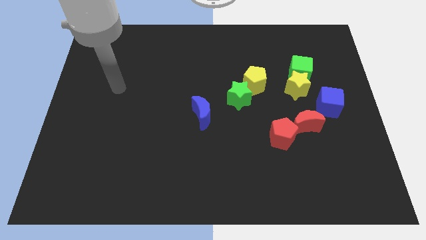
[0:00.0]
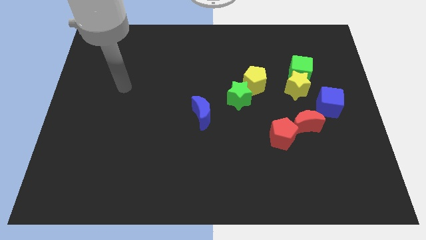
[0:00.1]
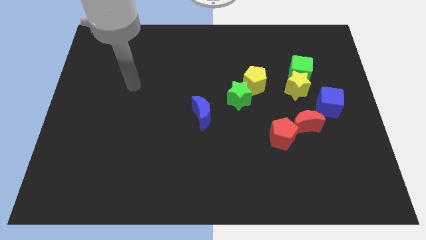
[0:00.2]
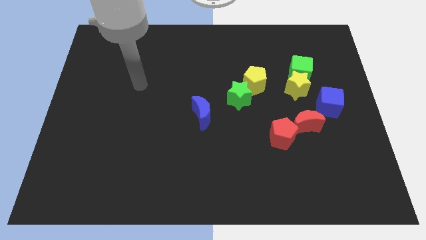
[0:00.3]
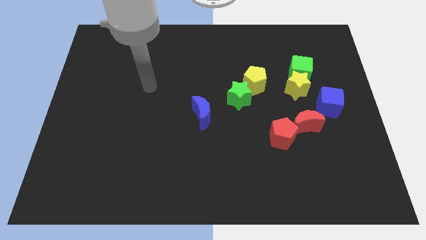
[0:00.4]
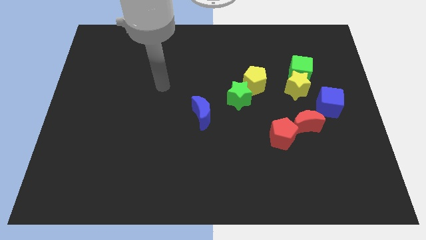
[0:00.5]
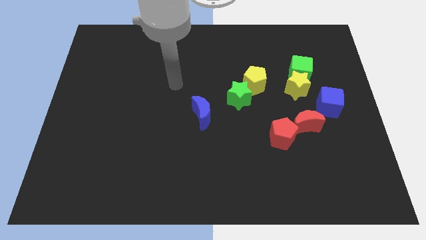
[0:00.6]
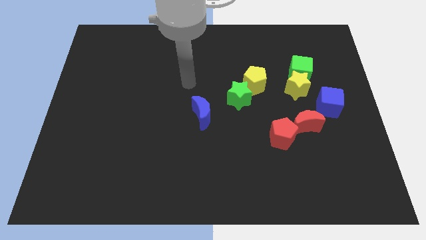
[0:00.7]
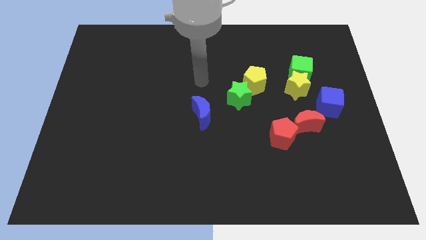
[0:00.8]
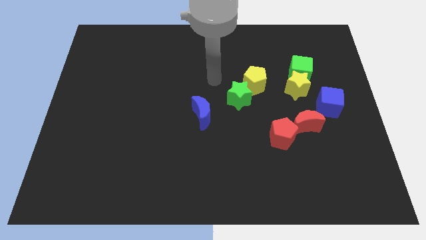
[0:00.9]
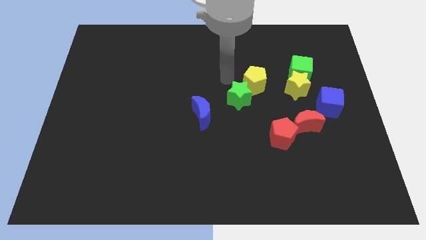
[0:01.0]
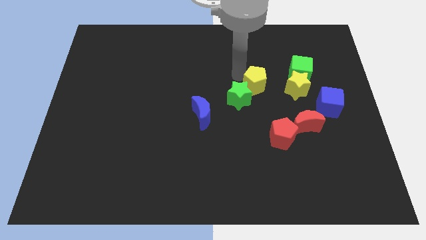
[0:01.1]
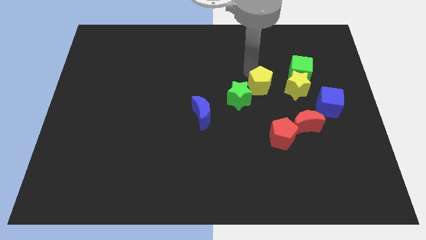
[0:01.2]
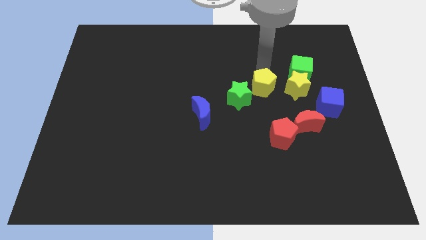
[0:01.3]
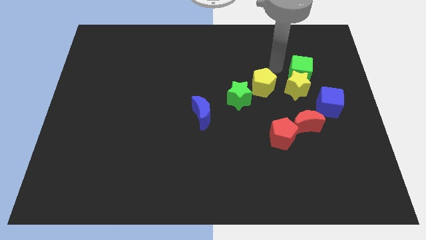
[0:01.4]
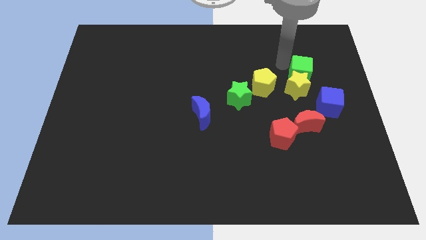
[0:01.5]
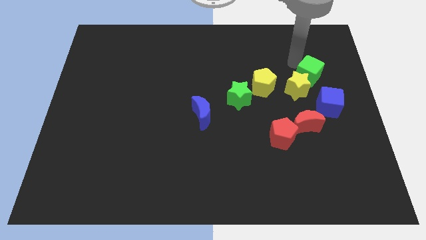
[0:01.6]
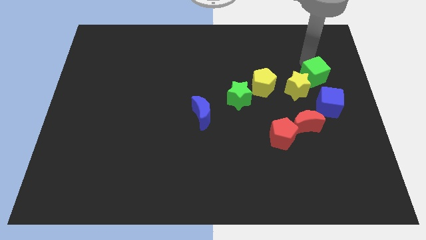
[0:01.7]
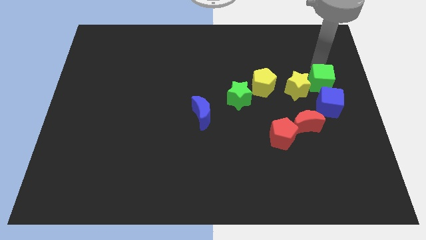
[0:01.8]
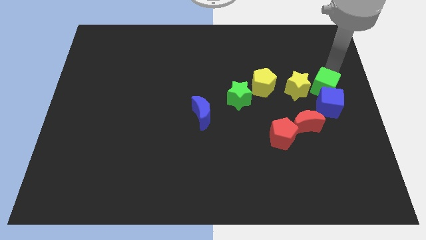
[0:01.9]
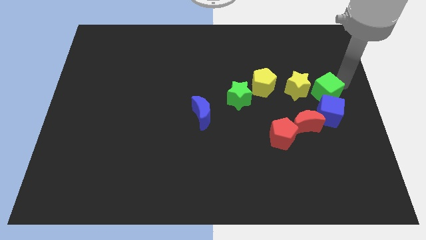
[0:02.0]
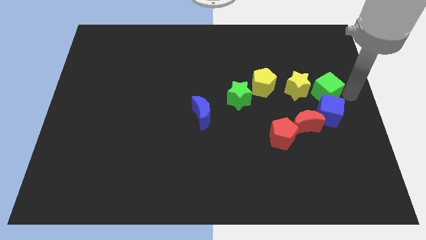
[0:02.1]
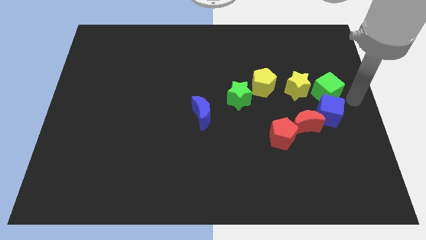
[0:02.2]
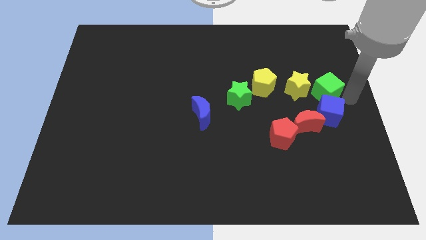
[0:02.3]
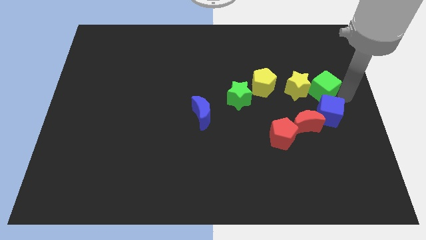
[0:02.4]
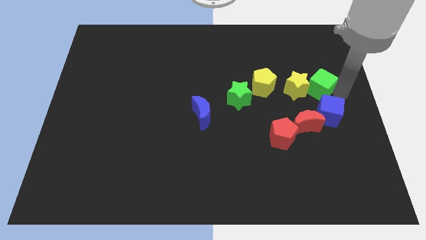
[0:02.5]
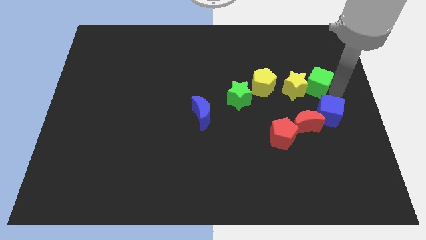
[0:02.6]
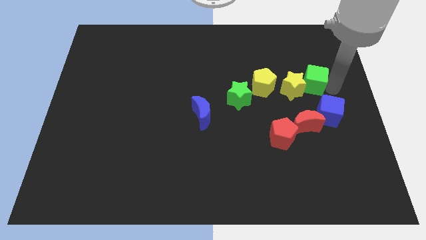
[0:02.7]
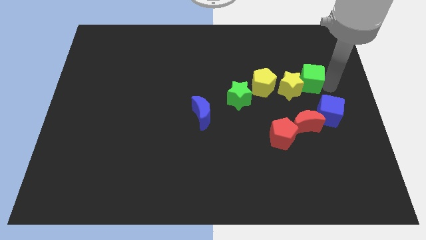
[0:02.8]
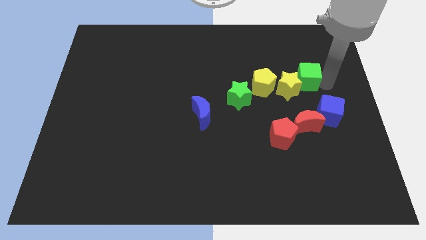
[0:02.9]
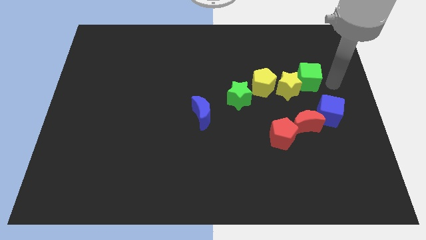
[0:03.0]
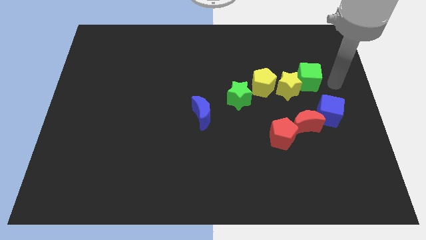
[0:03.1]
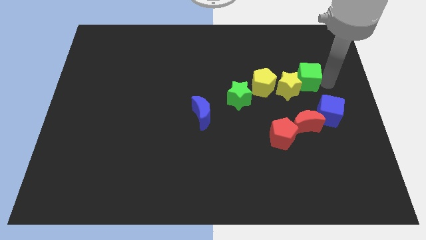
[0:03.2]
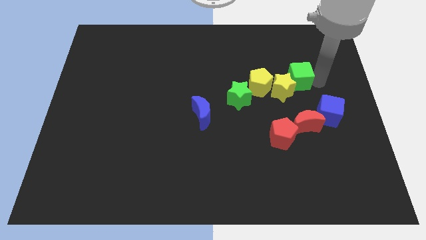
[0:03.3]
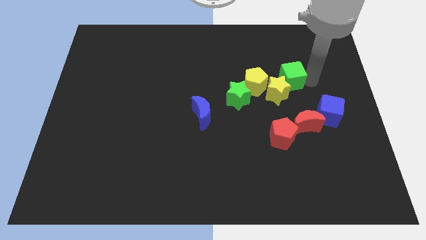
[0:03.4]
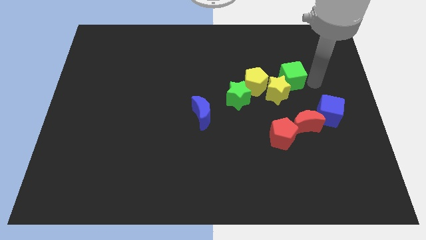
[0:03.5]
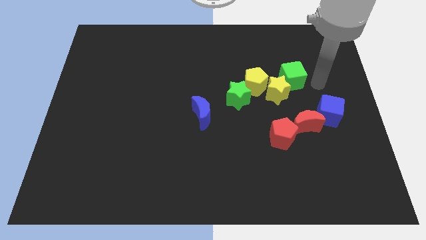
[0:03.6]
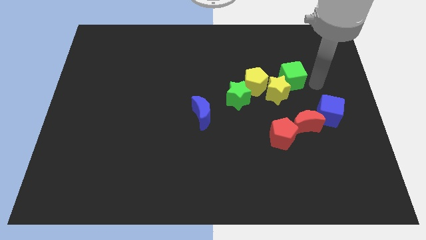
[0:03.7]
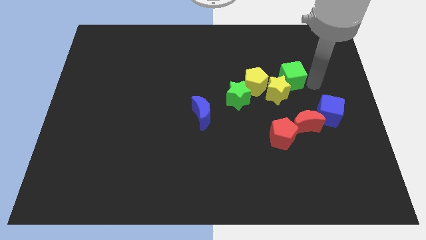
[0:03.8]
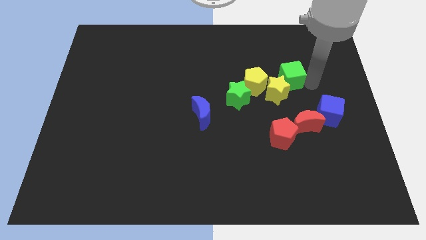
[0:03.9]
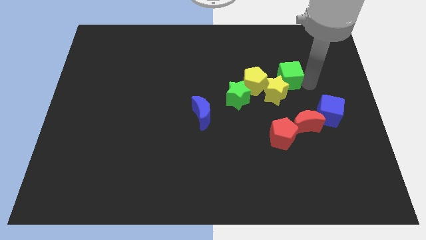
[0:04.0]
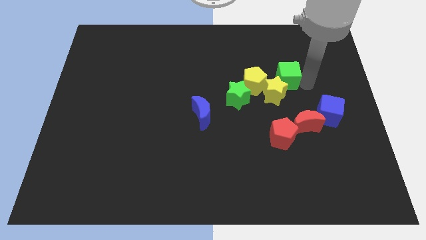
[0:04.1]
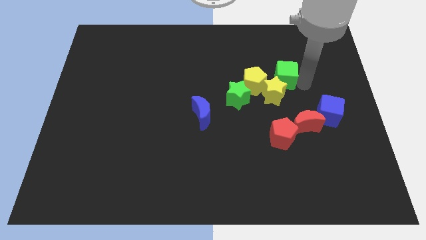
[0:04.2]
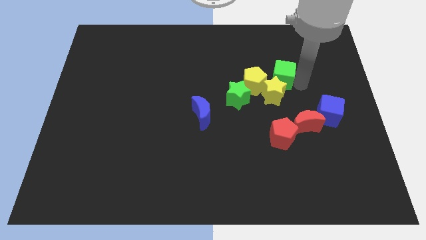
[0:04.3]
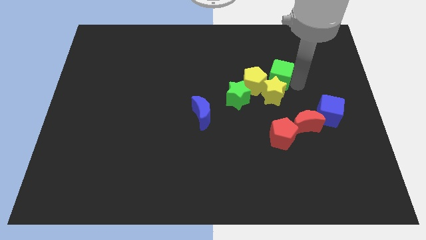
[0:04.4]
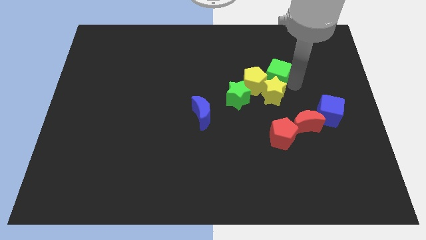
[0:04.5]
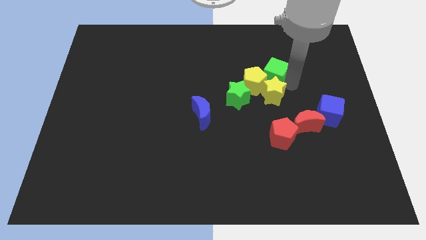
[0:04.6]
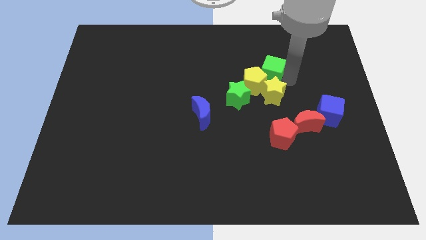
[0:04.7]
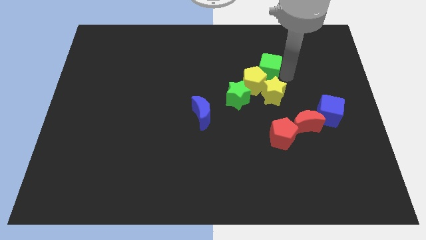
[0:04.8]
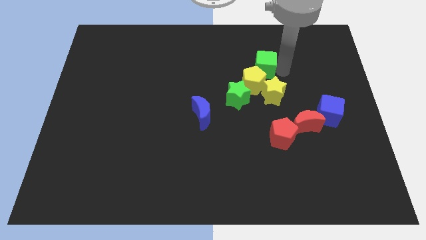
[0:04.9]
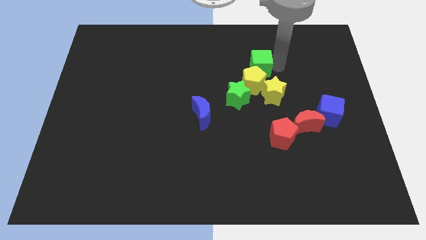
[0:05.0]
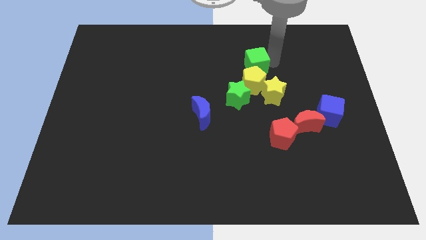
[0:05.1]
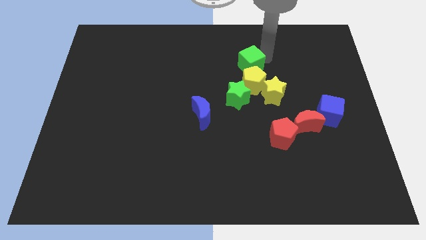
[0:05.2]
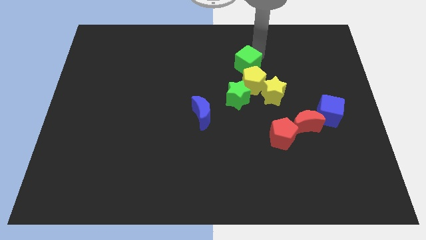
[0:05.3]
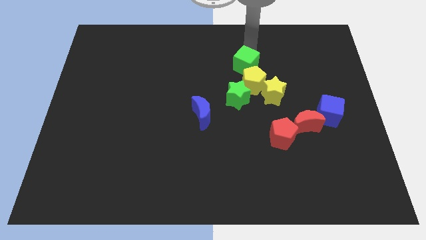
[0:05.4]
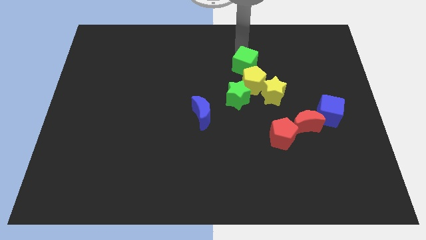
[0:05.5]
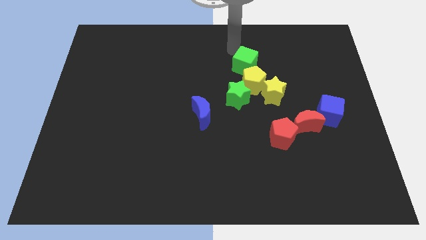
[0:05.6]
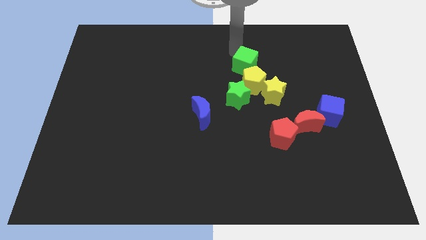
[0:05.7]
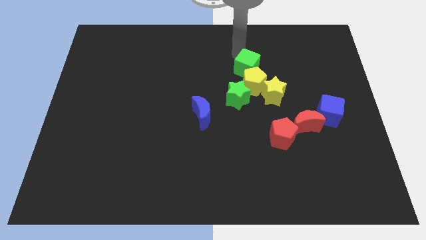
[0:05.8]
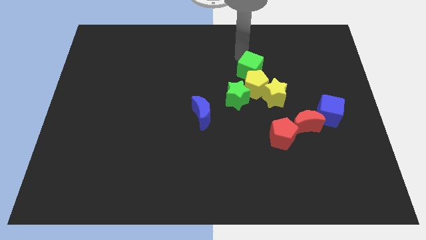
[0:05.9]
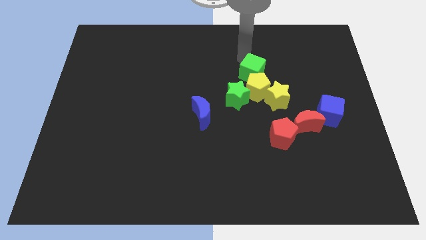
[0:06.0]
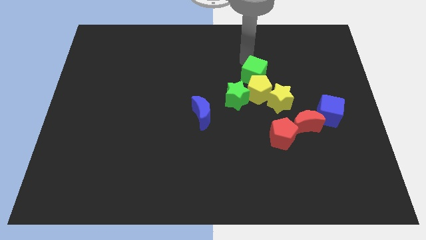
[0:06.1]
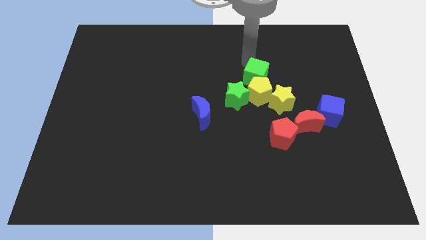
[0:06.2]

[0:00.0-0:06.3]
slightly push the green cube diagonally down and left

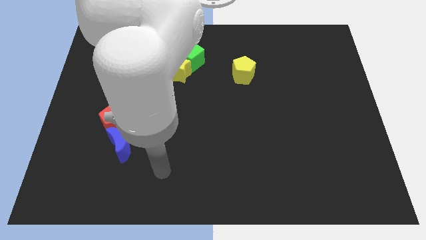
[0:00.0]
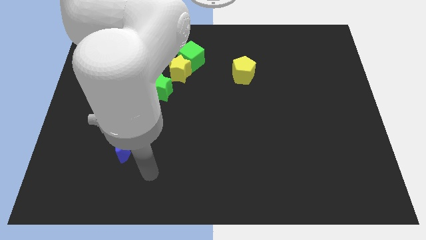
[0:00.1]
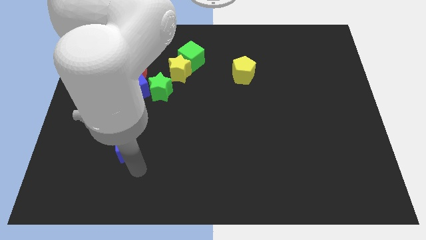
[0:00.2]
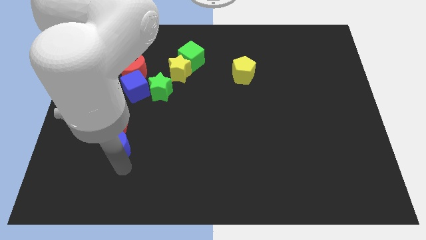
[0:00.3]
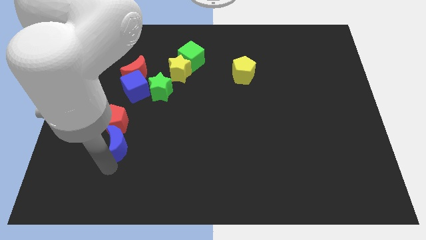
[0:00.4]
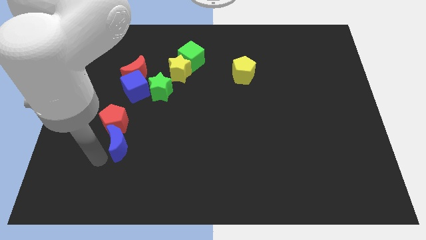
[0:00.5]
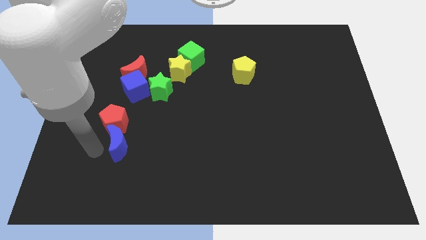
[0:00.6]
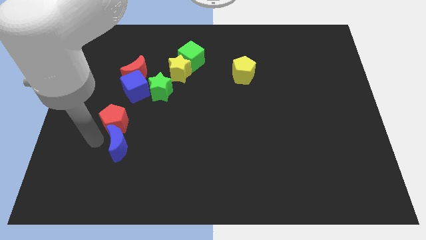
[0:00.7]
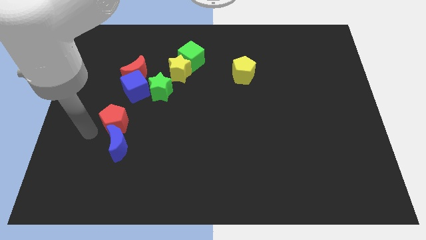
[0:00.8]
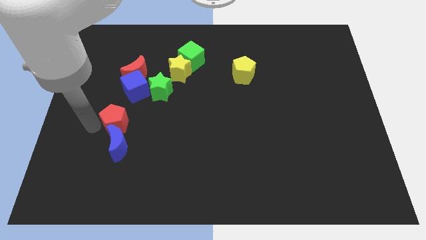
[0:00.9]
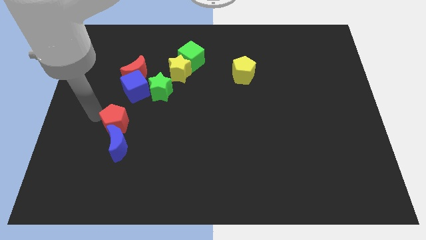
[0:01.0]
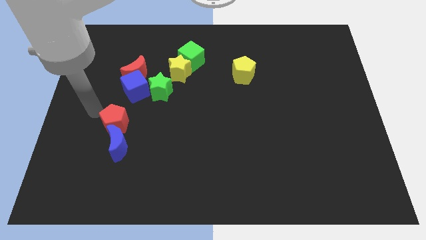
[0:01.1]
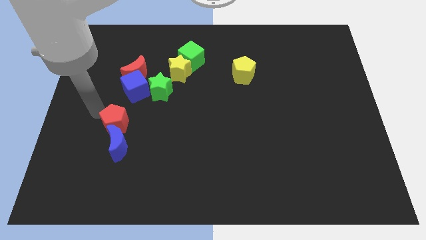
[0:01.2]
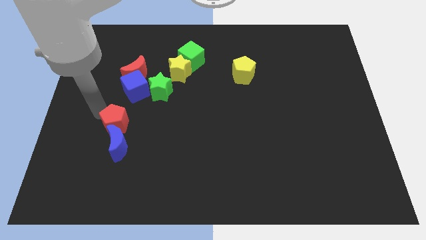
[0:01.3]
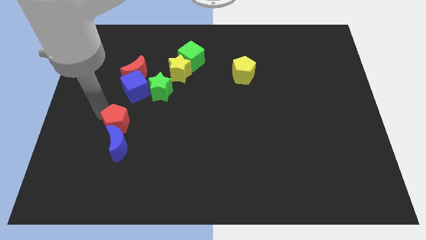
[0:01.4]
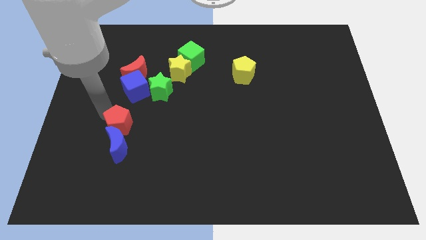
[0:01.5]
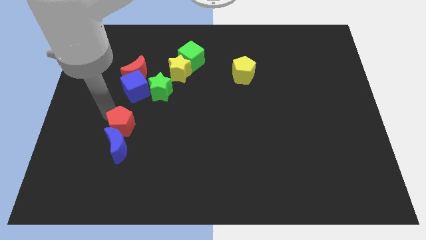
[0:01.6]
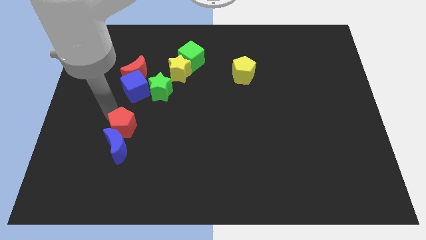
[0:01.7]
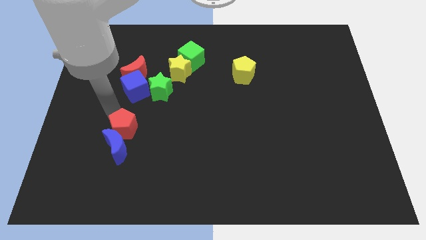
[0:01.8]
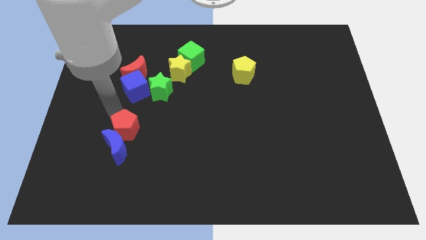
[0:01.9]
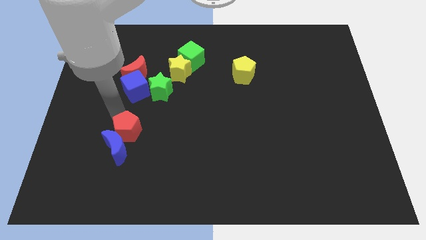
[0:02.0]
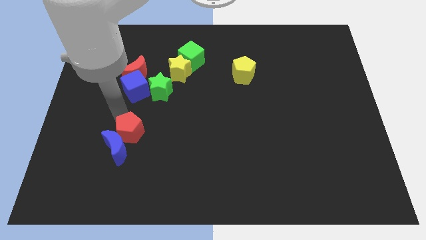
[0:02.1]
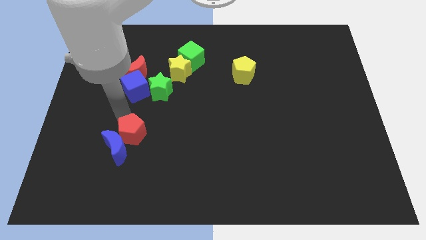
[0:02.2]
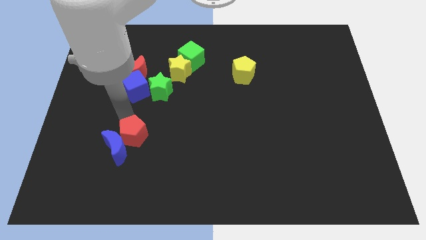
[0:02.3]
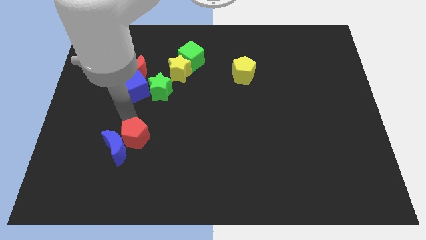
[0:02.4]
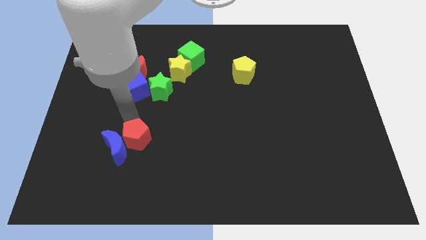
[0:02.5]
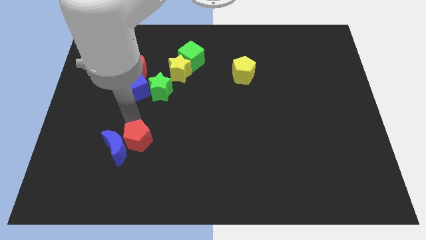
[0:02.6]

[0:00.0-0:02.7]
push the red pentagon downwards and right slightly
